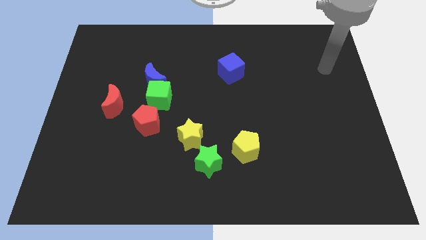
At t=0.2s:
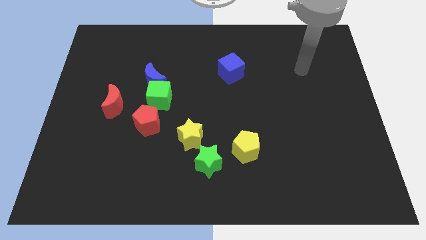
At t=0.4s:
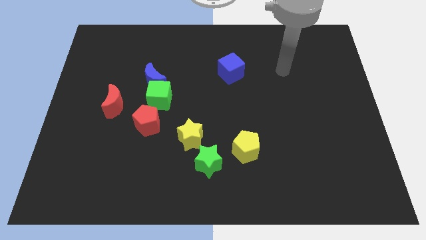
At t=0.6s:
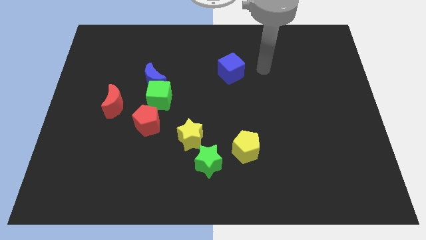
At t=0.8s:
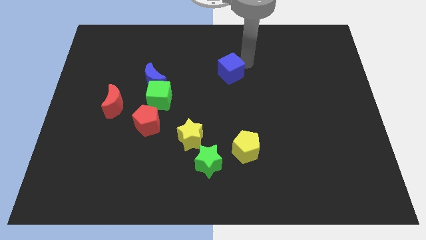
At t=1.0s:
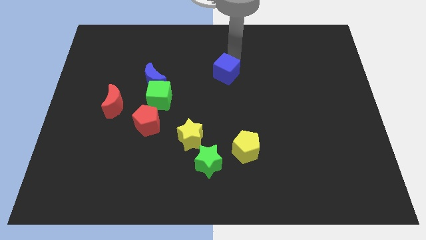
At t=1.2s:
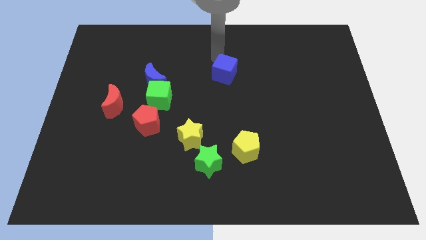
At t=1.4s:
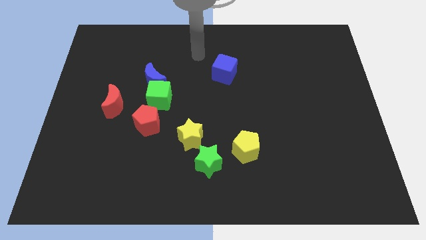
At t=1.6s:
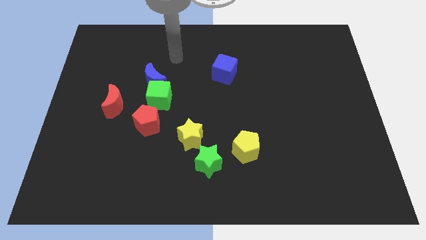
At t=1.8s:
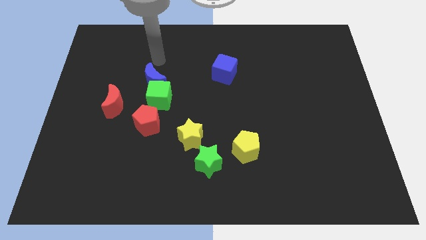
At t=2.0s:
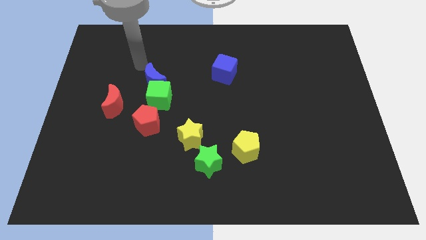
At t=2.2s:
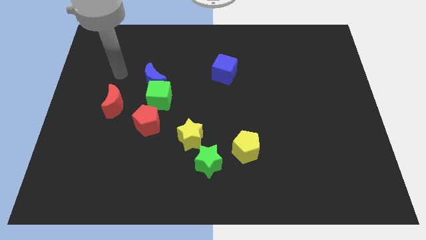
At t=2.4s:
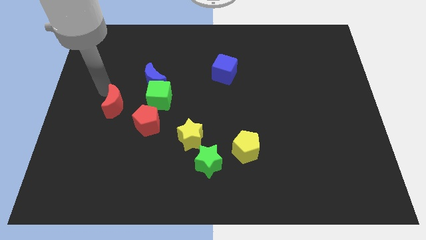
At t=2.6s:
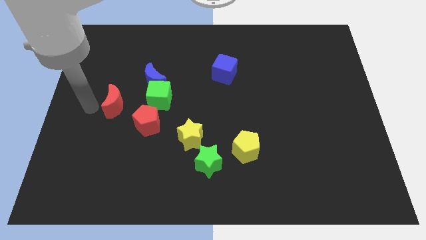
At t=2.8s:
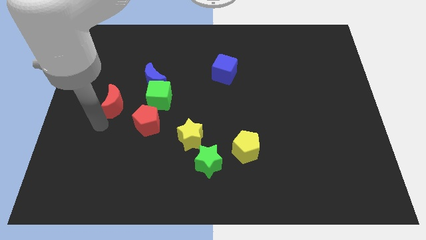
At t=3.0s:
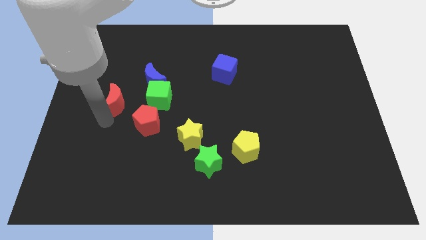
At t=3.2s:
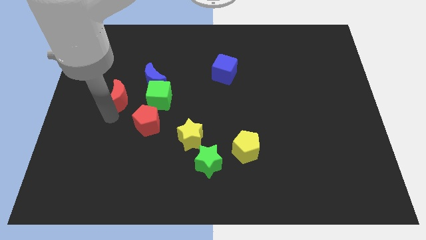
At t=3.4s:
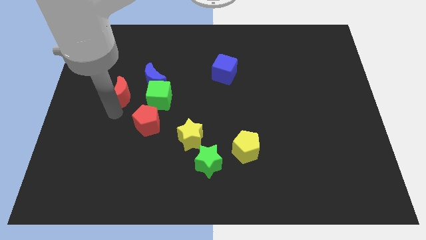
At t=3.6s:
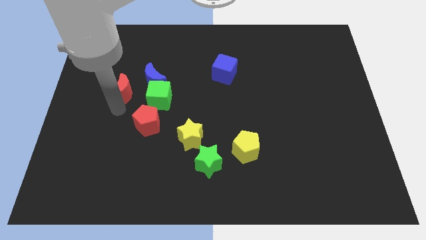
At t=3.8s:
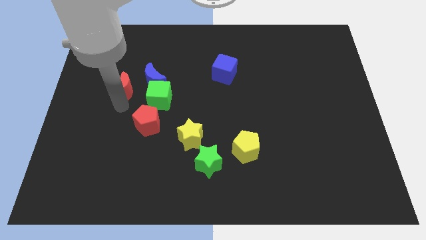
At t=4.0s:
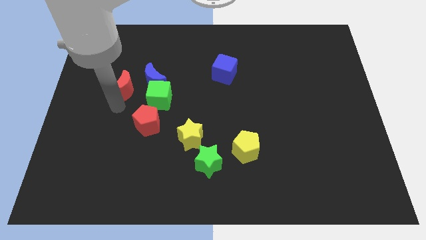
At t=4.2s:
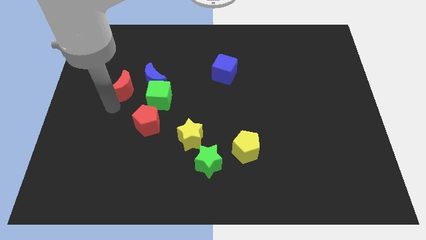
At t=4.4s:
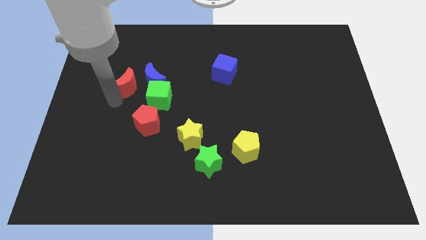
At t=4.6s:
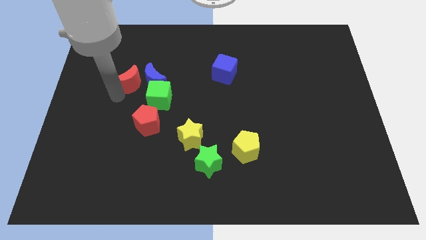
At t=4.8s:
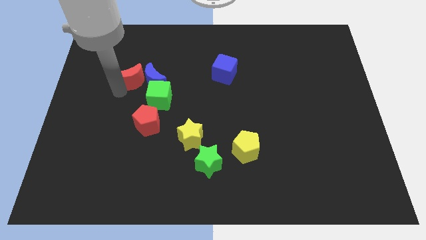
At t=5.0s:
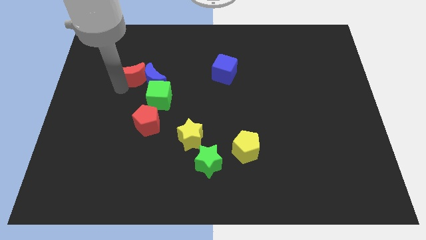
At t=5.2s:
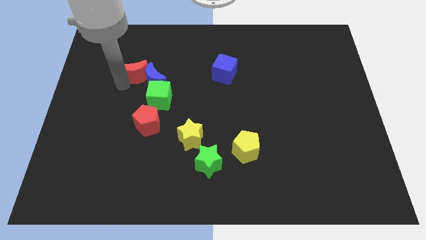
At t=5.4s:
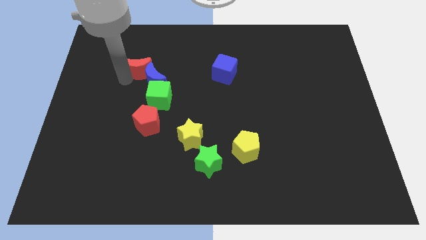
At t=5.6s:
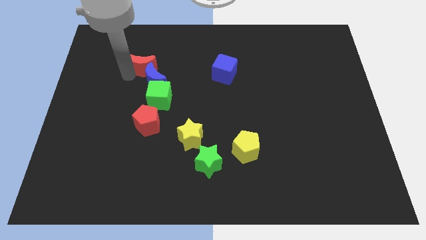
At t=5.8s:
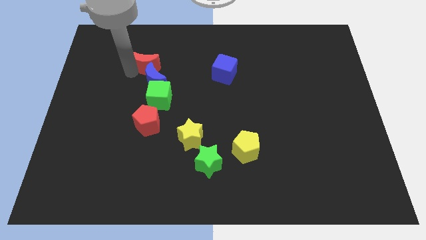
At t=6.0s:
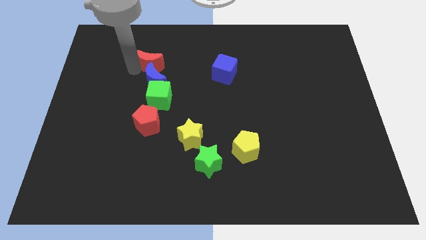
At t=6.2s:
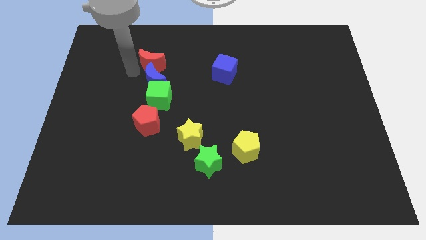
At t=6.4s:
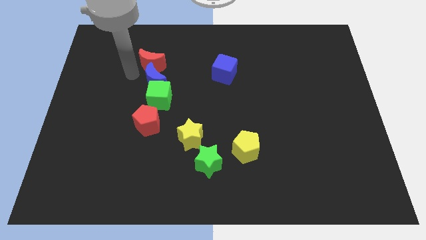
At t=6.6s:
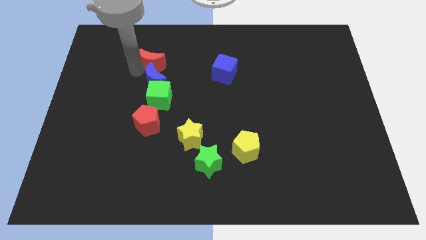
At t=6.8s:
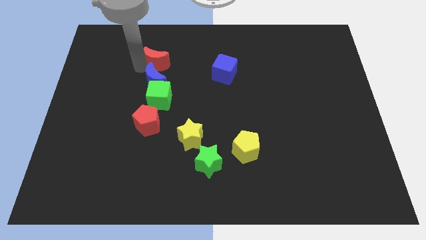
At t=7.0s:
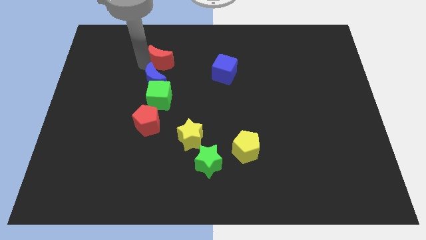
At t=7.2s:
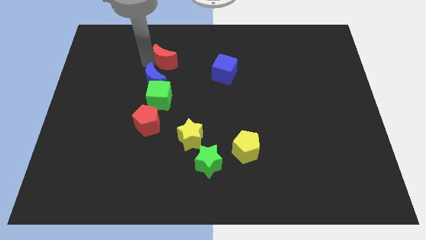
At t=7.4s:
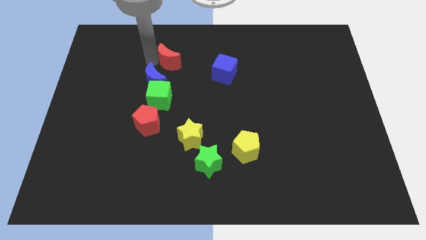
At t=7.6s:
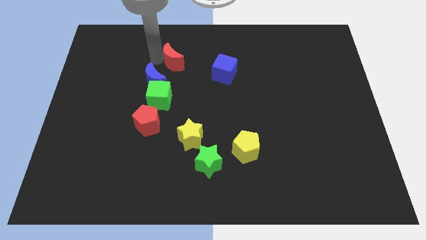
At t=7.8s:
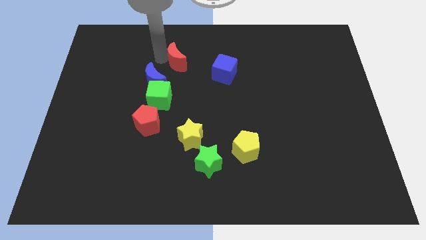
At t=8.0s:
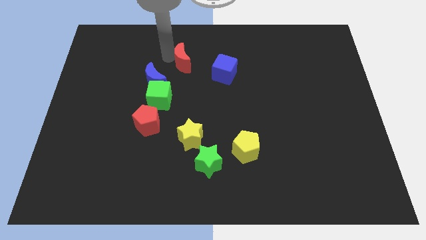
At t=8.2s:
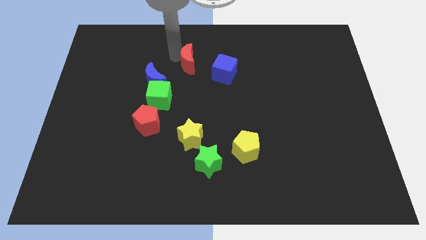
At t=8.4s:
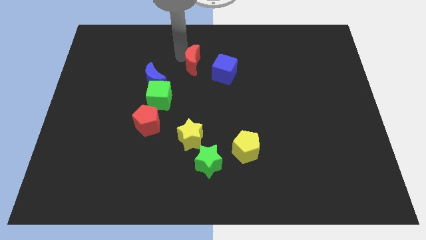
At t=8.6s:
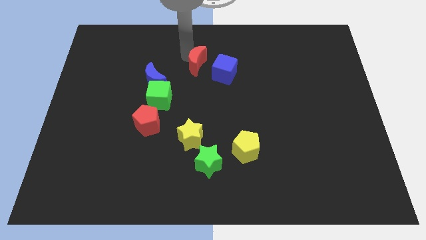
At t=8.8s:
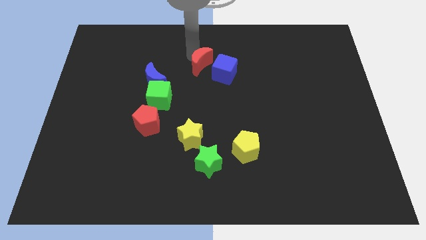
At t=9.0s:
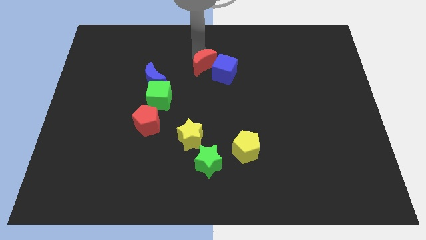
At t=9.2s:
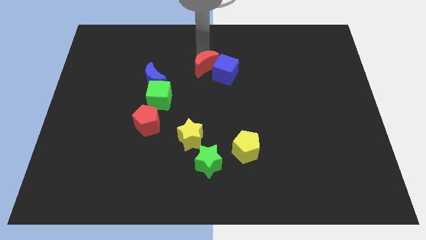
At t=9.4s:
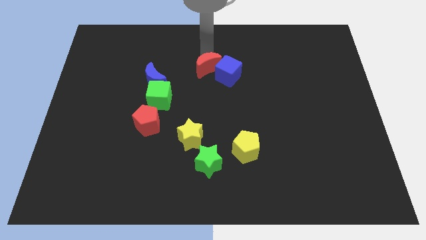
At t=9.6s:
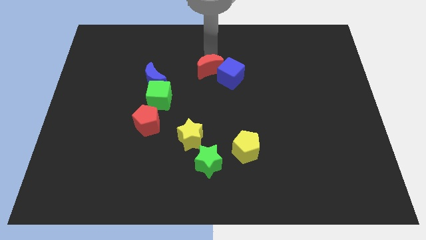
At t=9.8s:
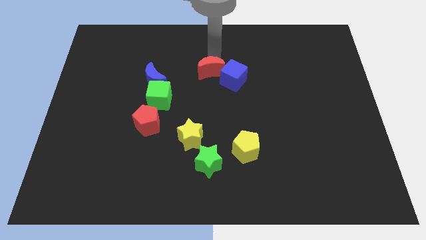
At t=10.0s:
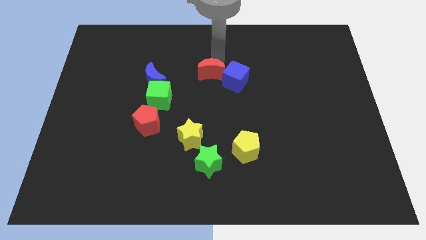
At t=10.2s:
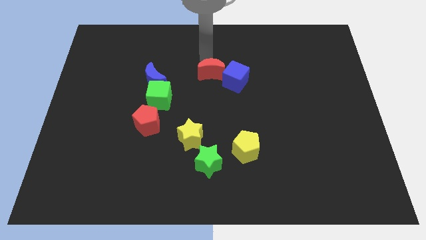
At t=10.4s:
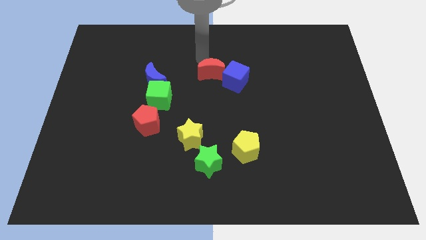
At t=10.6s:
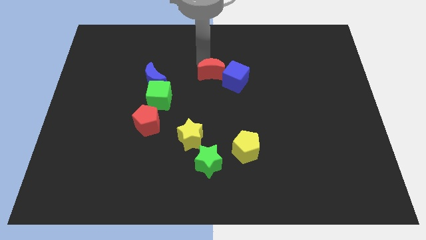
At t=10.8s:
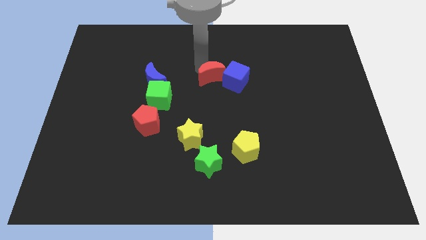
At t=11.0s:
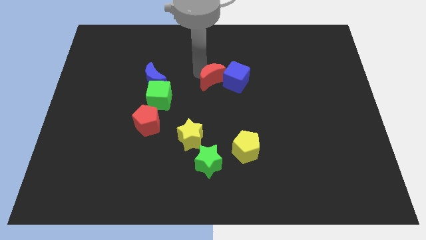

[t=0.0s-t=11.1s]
move the red moon right

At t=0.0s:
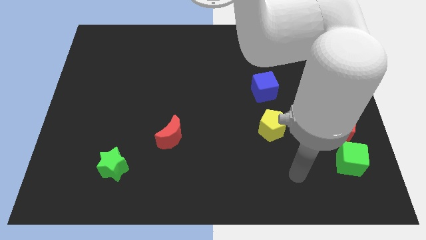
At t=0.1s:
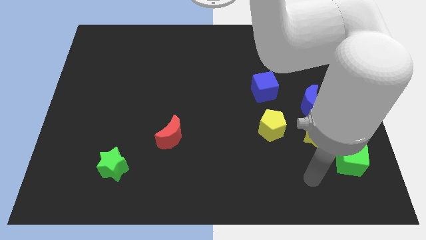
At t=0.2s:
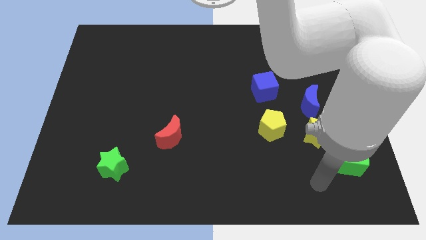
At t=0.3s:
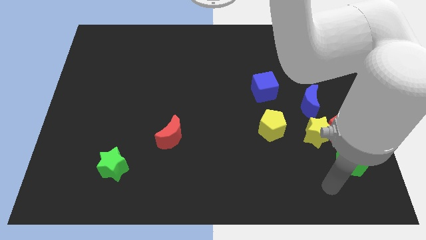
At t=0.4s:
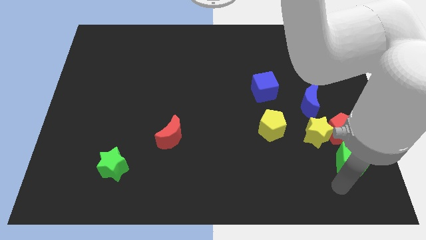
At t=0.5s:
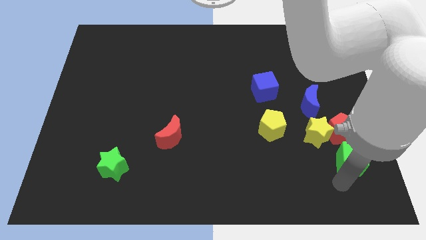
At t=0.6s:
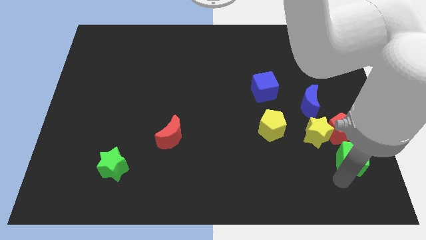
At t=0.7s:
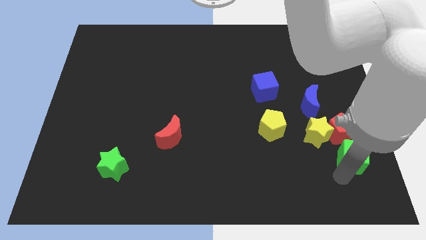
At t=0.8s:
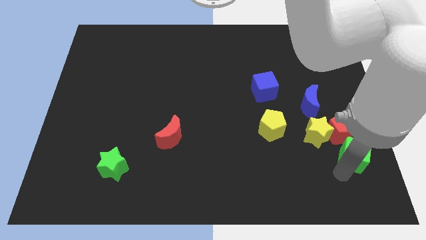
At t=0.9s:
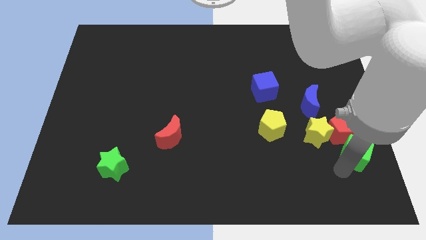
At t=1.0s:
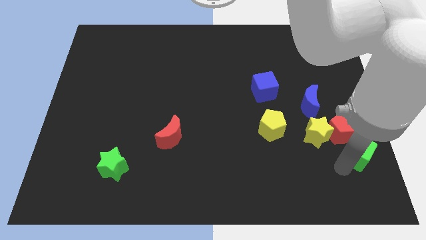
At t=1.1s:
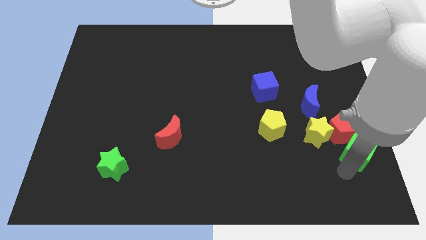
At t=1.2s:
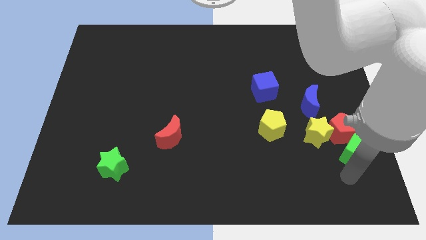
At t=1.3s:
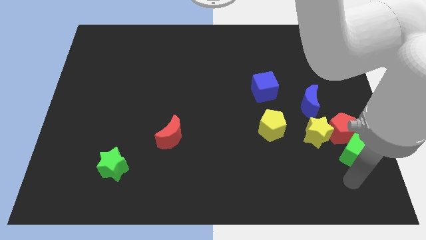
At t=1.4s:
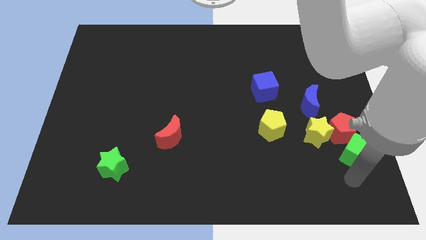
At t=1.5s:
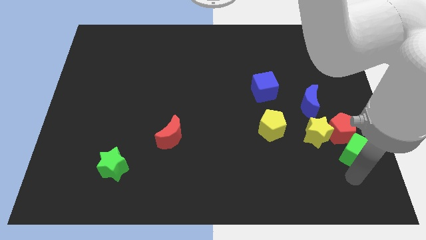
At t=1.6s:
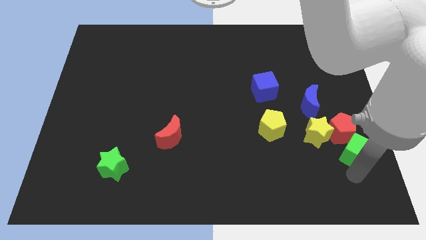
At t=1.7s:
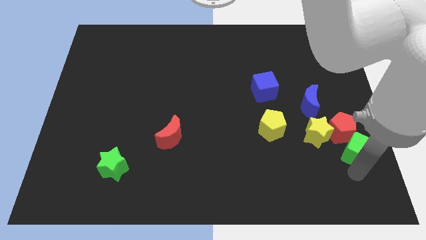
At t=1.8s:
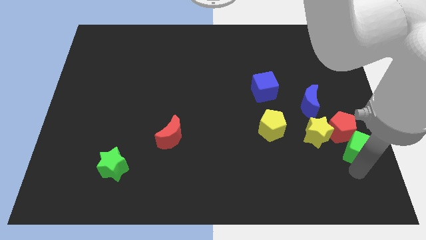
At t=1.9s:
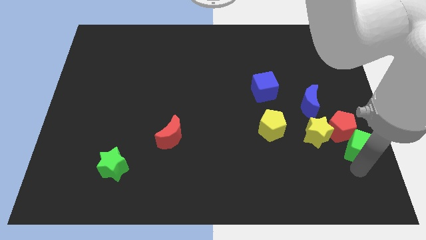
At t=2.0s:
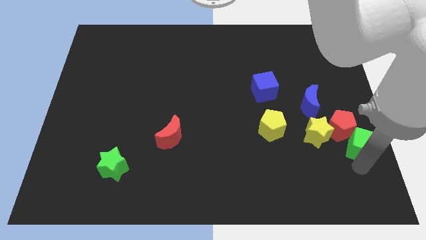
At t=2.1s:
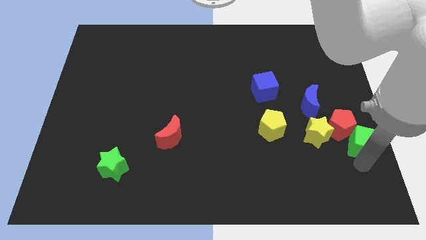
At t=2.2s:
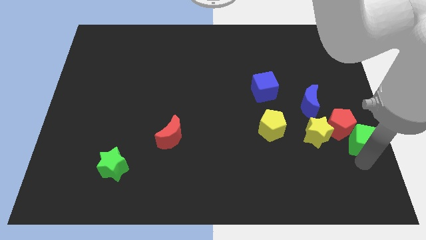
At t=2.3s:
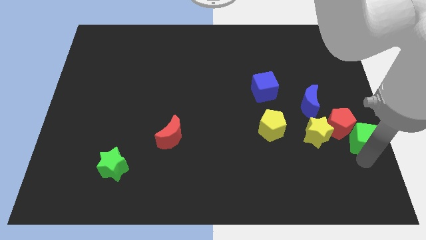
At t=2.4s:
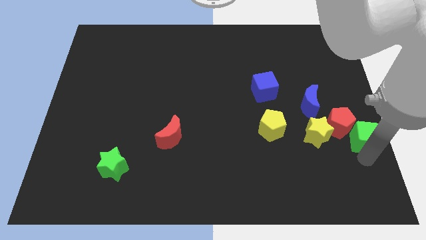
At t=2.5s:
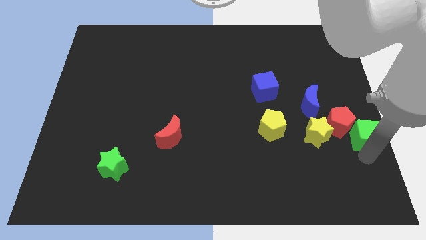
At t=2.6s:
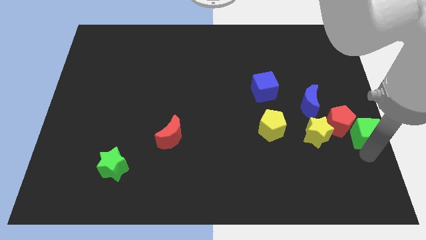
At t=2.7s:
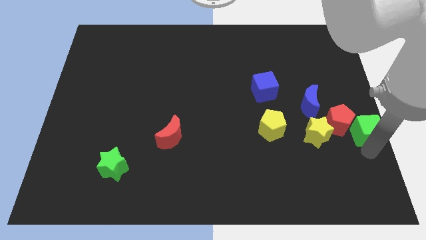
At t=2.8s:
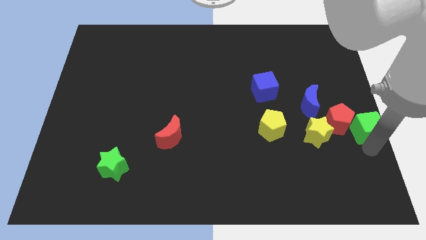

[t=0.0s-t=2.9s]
slightly slide the green cube up
